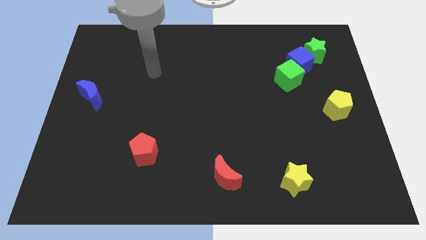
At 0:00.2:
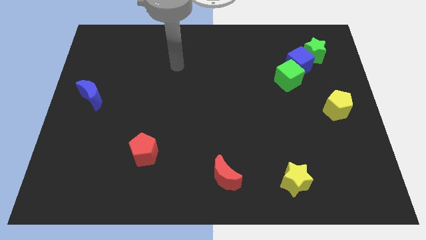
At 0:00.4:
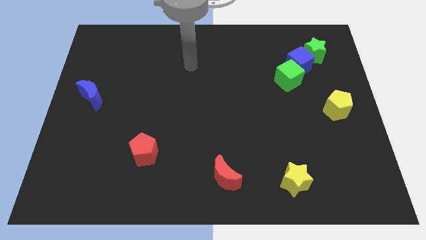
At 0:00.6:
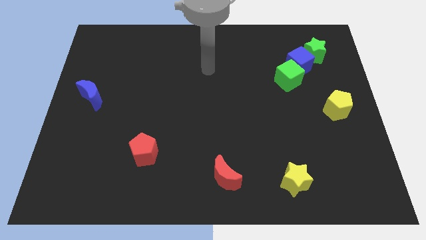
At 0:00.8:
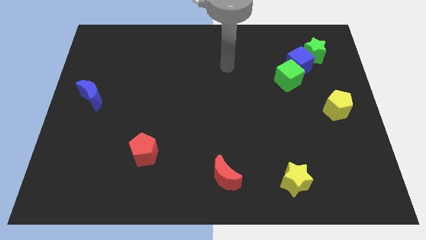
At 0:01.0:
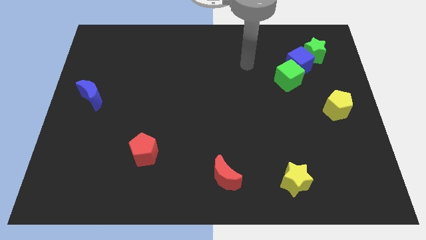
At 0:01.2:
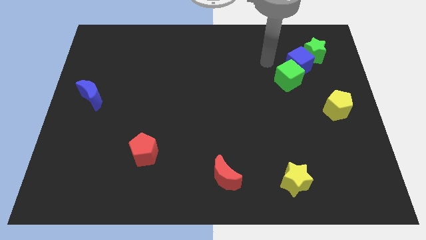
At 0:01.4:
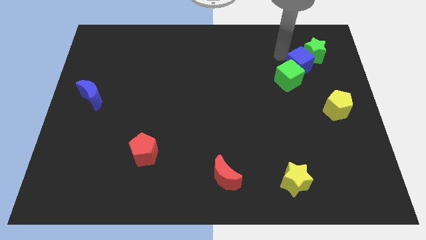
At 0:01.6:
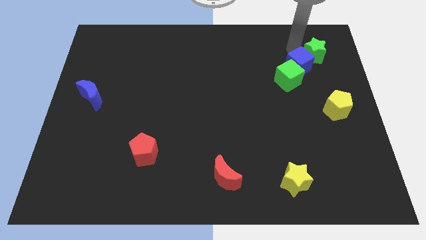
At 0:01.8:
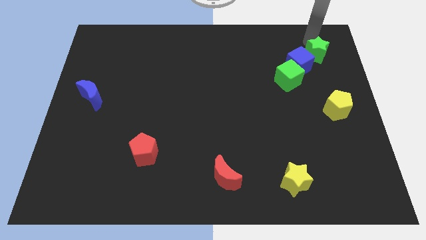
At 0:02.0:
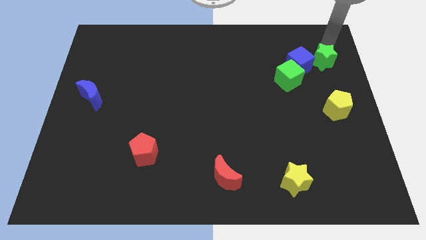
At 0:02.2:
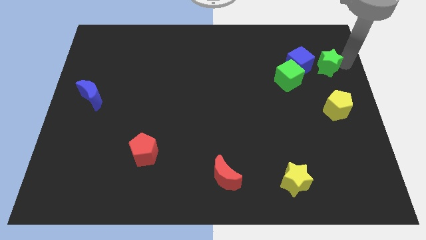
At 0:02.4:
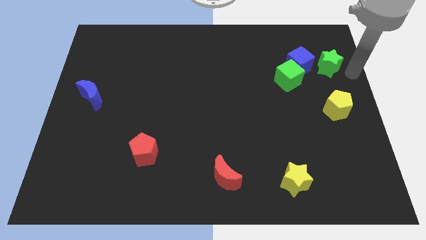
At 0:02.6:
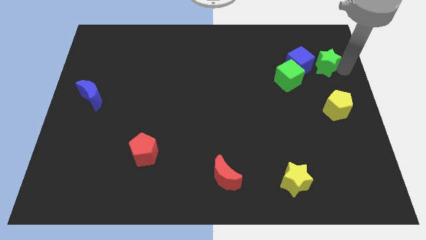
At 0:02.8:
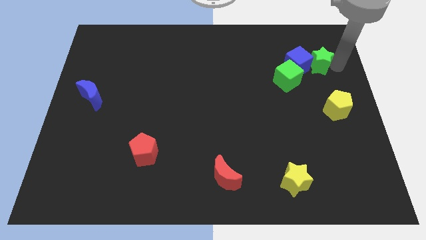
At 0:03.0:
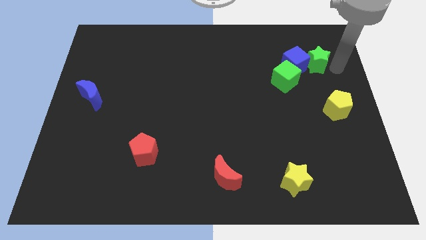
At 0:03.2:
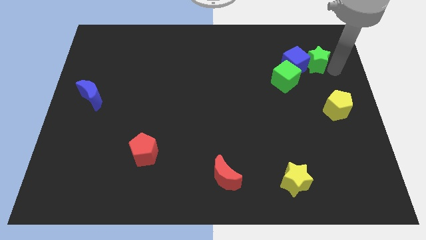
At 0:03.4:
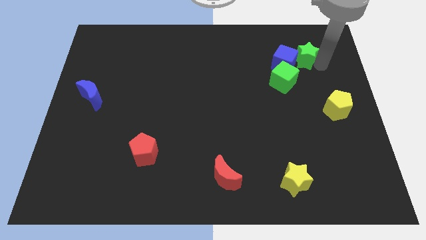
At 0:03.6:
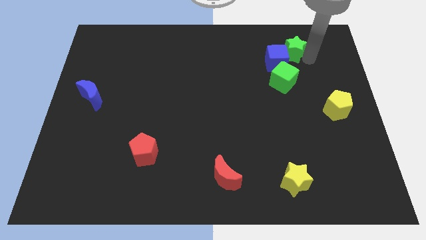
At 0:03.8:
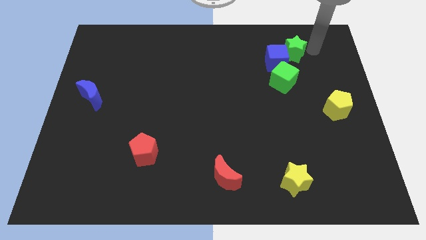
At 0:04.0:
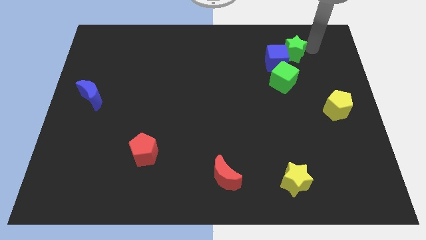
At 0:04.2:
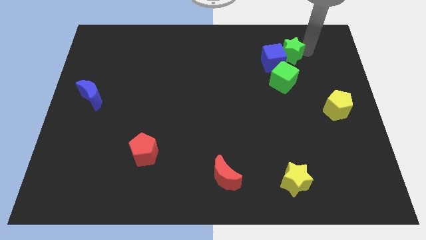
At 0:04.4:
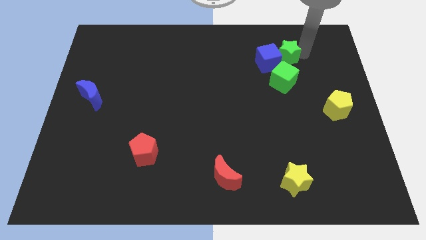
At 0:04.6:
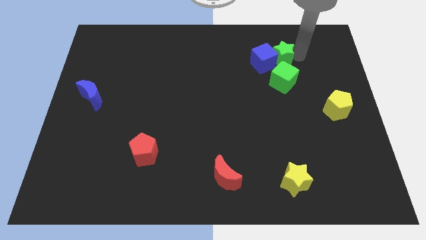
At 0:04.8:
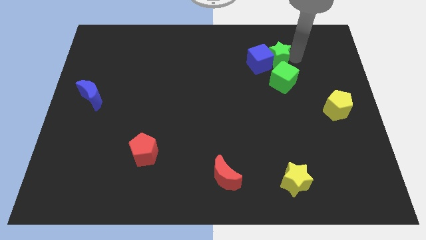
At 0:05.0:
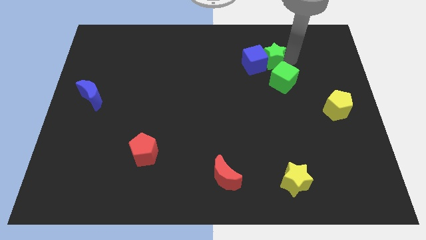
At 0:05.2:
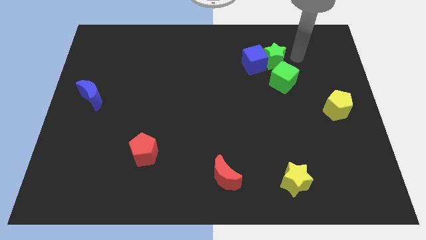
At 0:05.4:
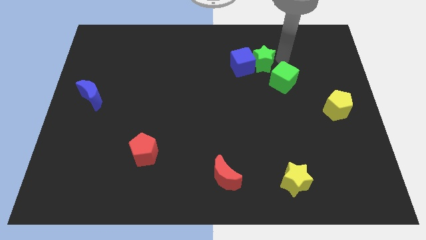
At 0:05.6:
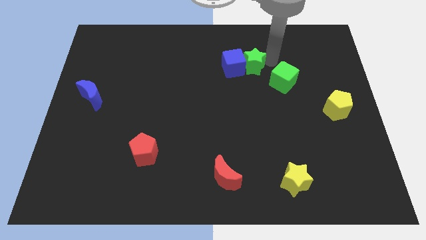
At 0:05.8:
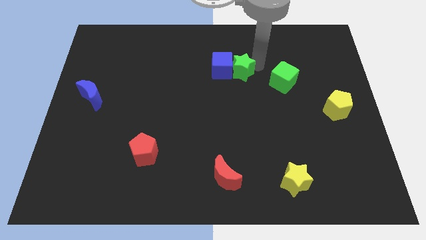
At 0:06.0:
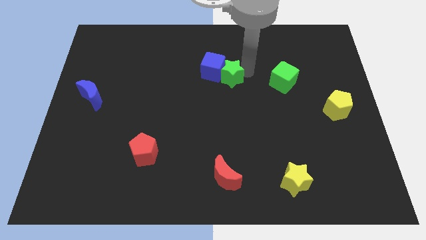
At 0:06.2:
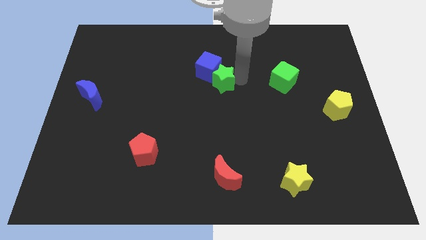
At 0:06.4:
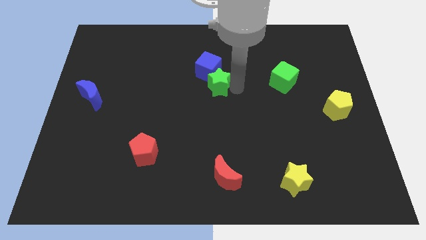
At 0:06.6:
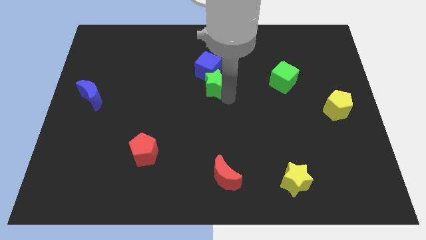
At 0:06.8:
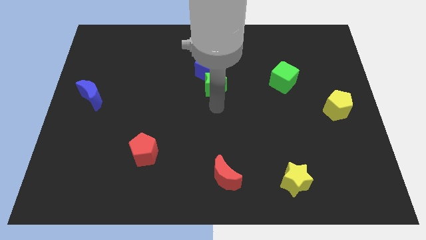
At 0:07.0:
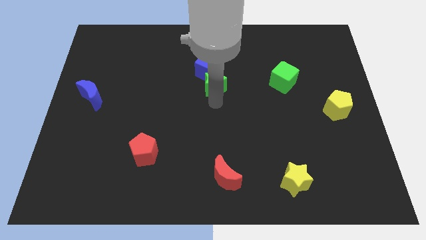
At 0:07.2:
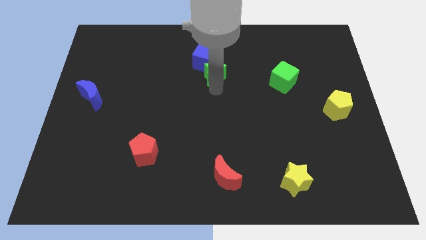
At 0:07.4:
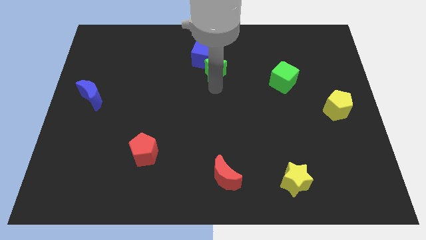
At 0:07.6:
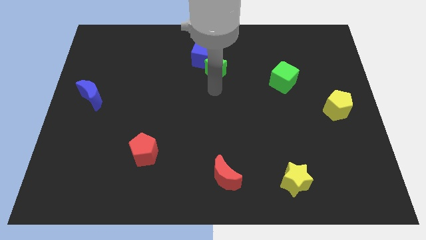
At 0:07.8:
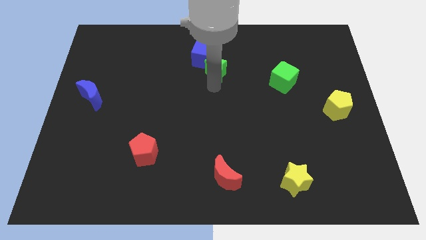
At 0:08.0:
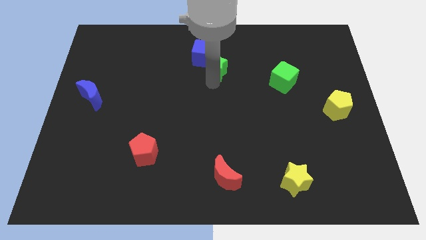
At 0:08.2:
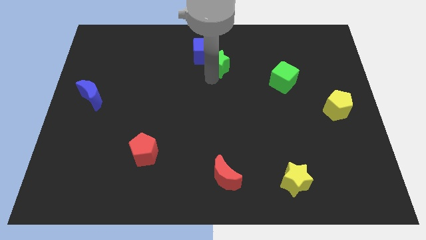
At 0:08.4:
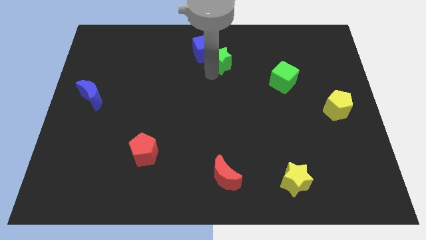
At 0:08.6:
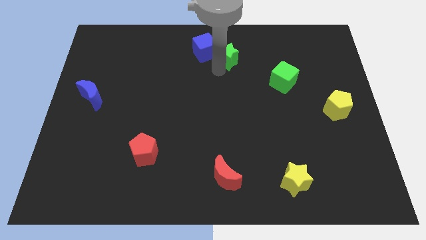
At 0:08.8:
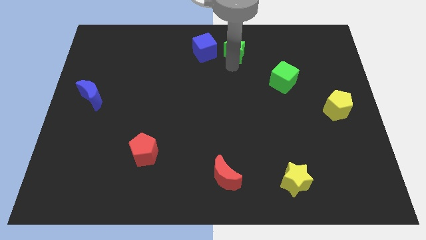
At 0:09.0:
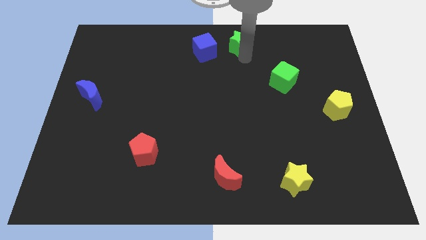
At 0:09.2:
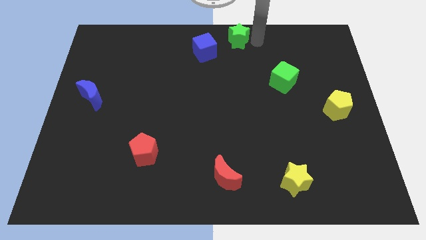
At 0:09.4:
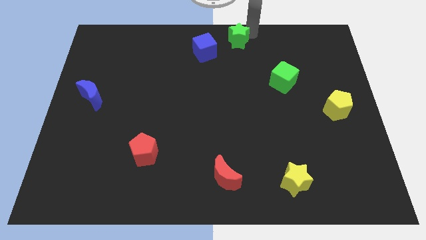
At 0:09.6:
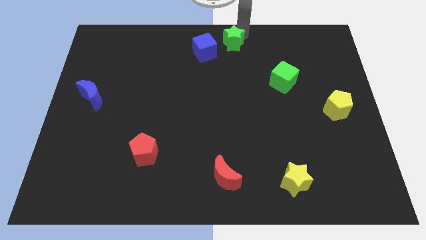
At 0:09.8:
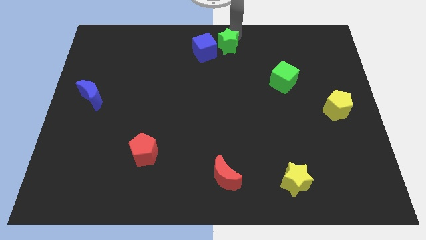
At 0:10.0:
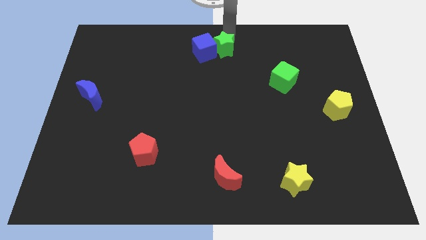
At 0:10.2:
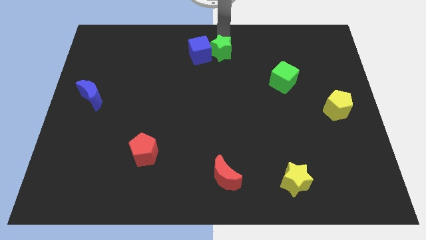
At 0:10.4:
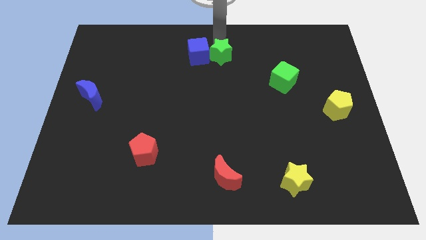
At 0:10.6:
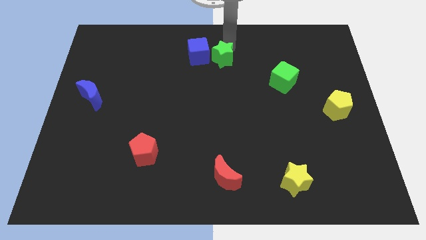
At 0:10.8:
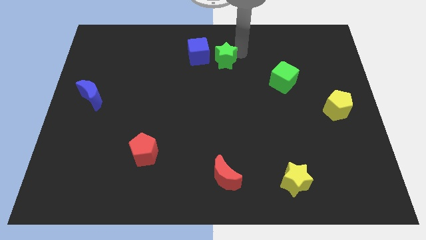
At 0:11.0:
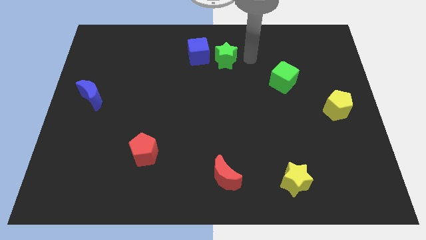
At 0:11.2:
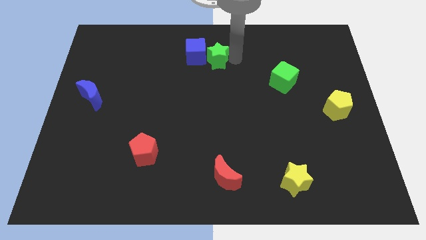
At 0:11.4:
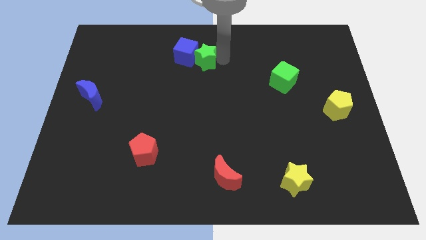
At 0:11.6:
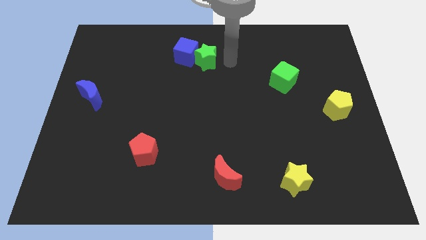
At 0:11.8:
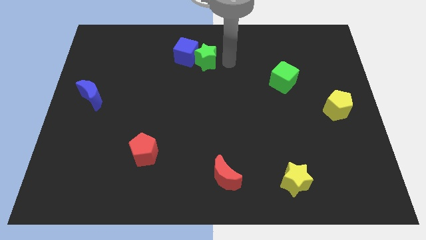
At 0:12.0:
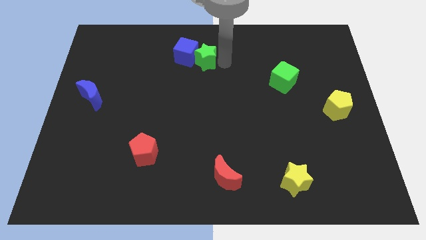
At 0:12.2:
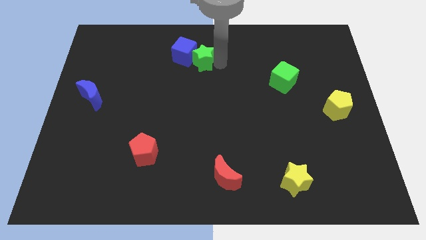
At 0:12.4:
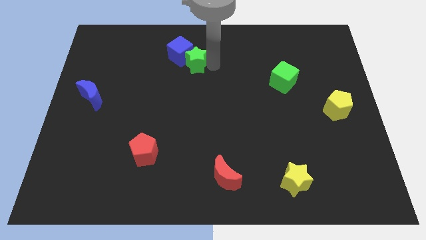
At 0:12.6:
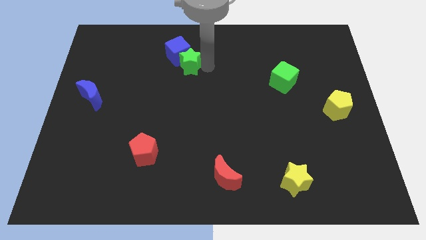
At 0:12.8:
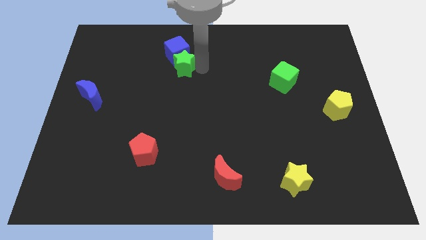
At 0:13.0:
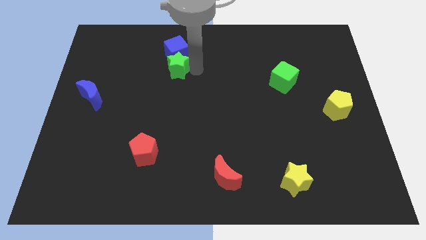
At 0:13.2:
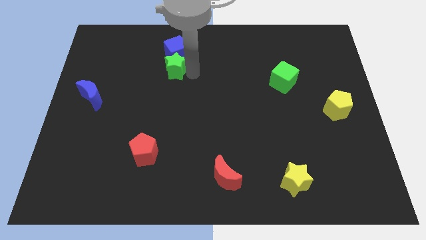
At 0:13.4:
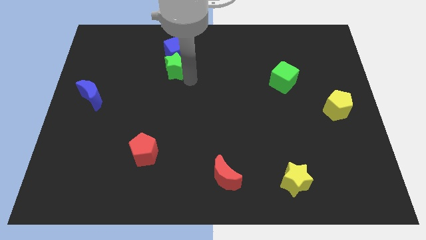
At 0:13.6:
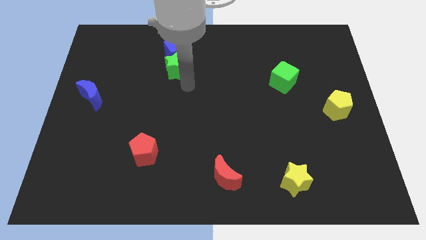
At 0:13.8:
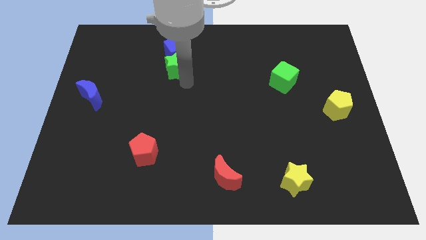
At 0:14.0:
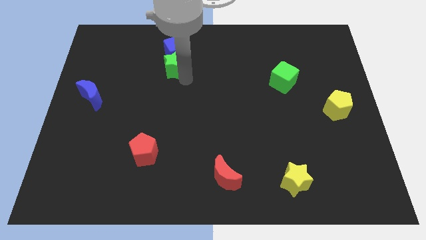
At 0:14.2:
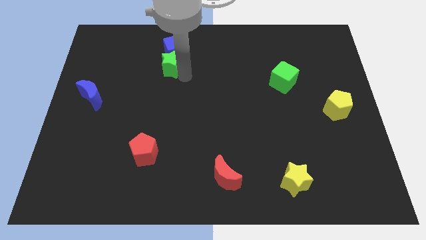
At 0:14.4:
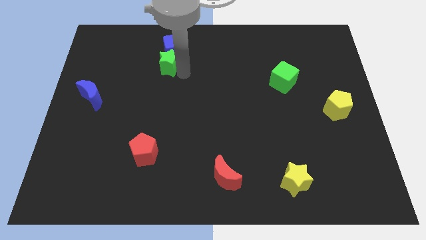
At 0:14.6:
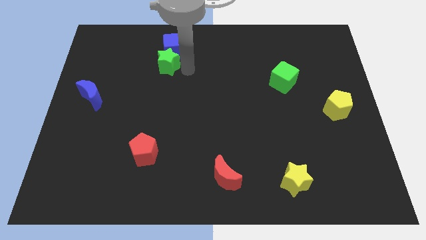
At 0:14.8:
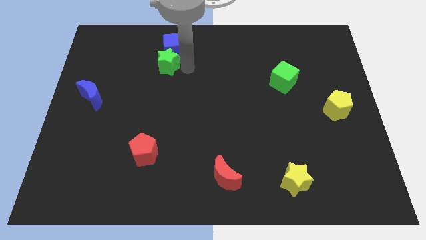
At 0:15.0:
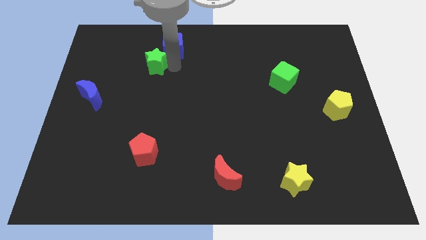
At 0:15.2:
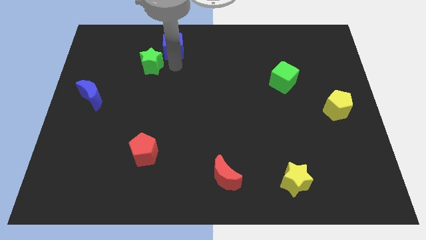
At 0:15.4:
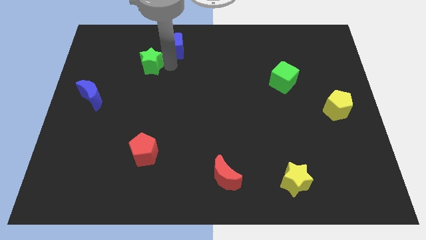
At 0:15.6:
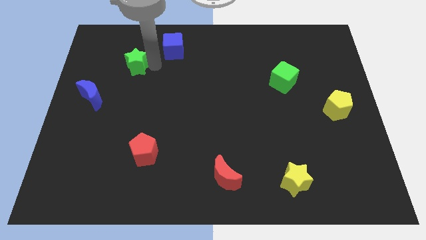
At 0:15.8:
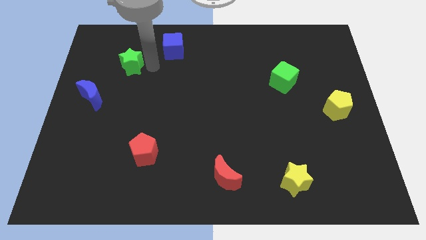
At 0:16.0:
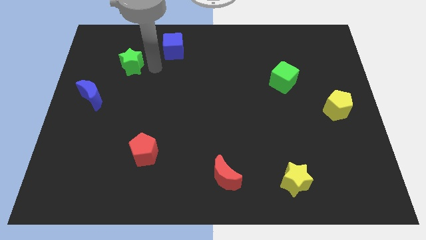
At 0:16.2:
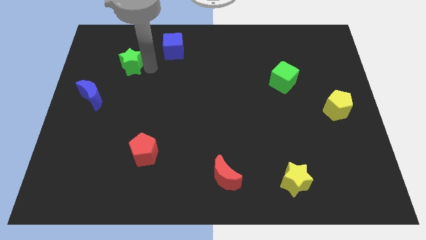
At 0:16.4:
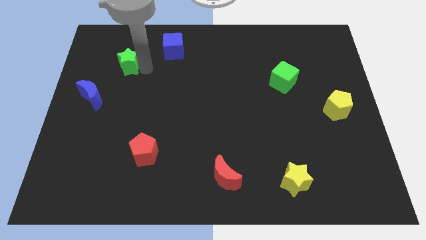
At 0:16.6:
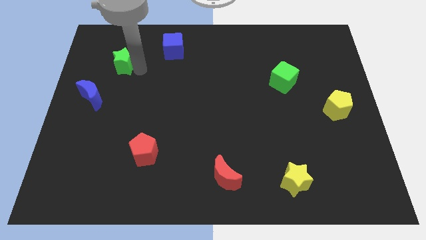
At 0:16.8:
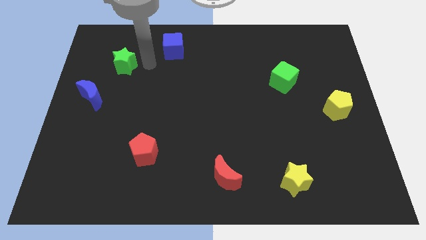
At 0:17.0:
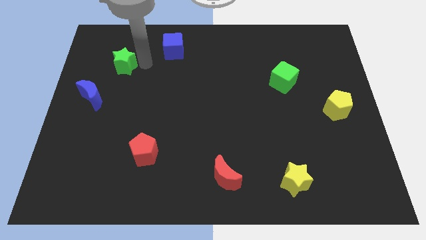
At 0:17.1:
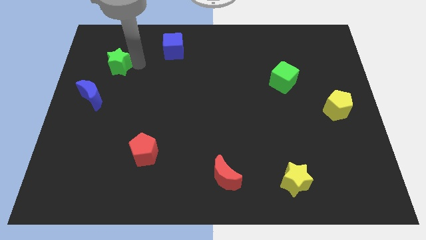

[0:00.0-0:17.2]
move the green star to the top side of the blue moon
